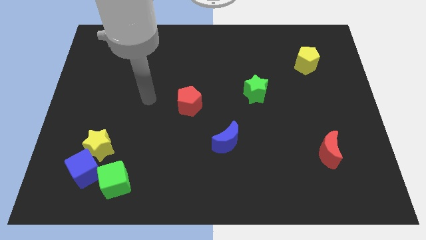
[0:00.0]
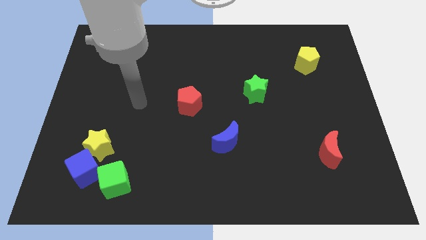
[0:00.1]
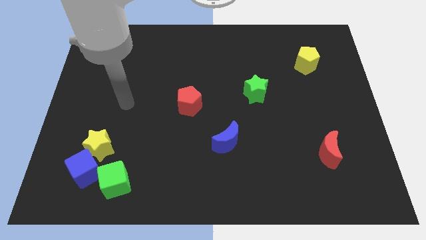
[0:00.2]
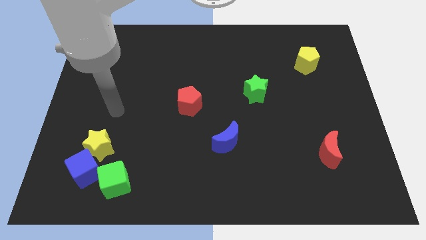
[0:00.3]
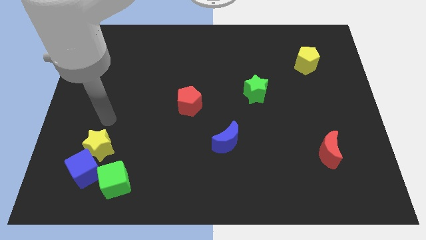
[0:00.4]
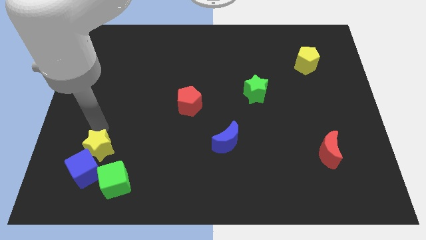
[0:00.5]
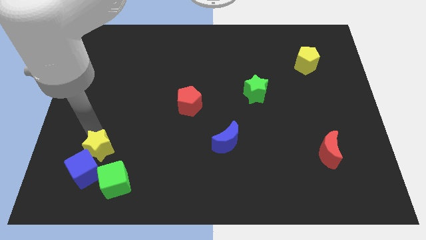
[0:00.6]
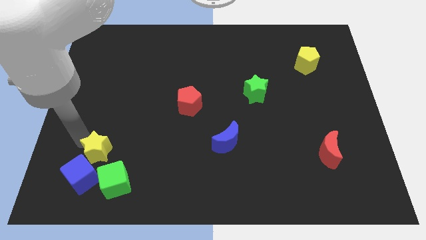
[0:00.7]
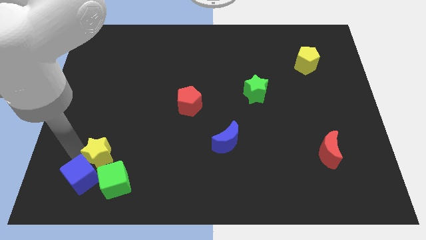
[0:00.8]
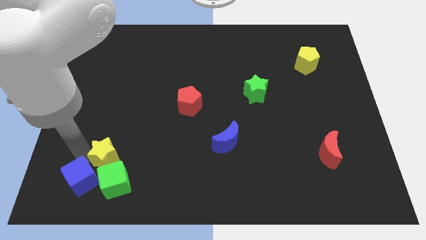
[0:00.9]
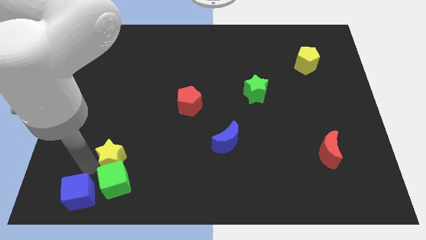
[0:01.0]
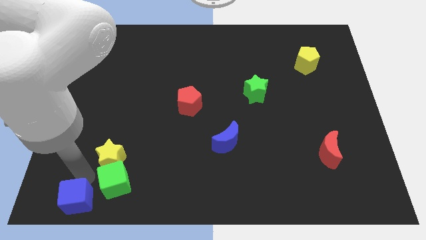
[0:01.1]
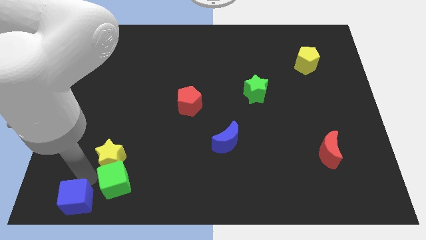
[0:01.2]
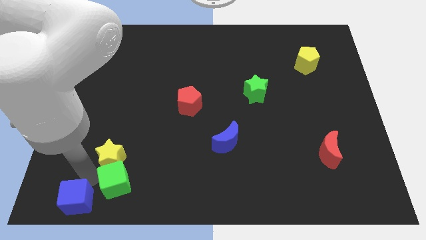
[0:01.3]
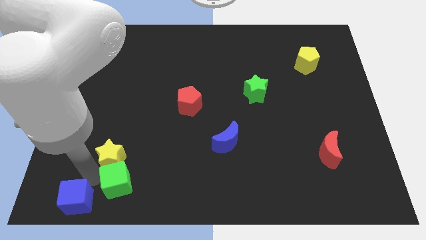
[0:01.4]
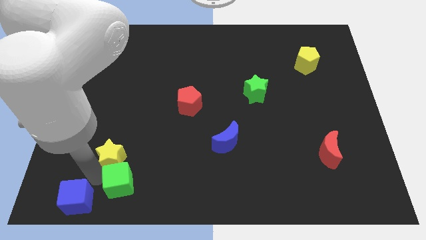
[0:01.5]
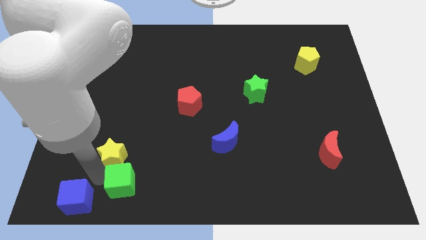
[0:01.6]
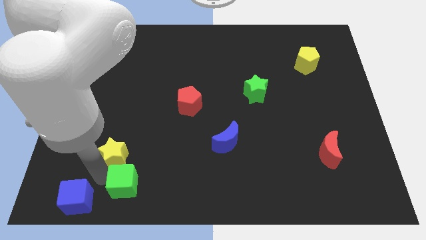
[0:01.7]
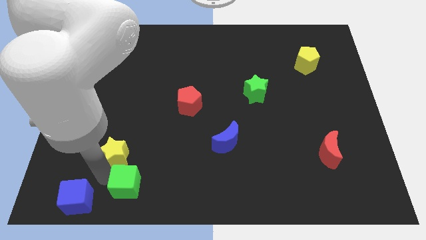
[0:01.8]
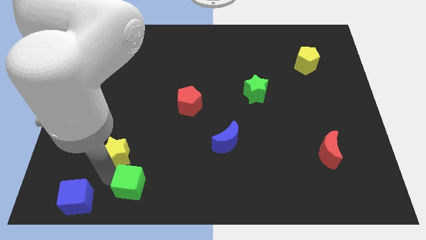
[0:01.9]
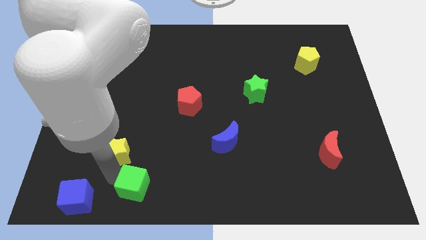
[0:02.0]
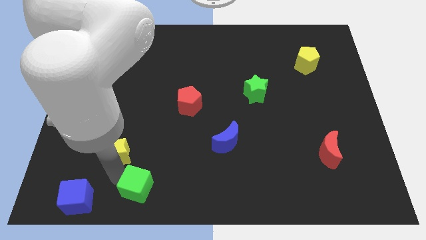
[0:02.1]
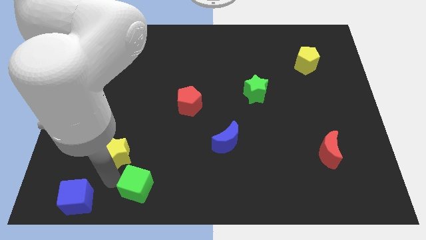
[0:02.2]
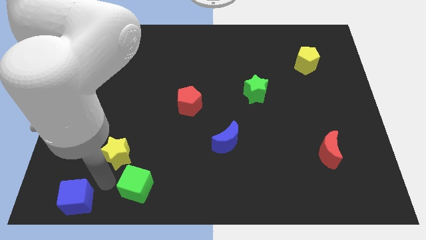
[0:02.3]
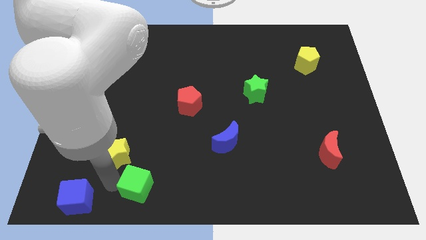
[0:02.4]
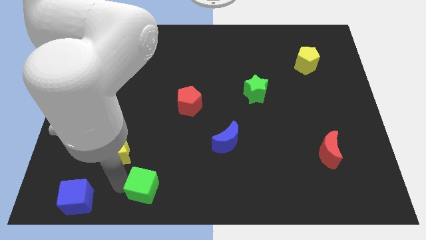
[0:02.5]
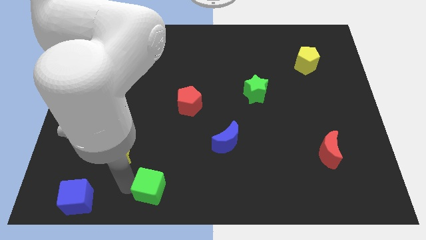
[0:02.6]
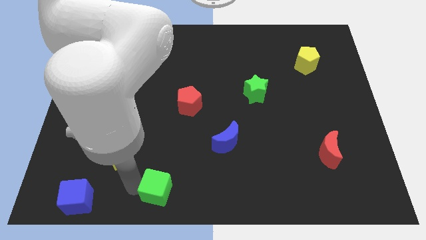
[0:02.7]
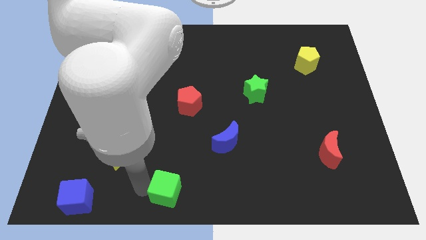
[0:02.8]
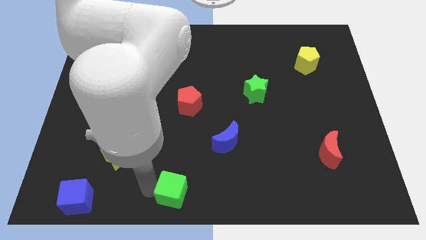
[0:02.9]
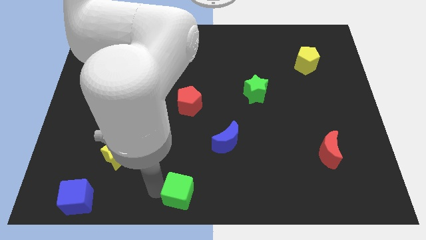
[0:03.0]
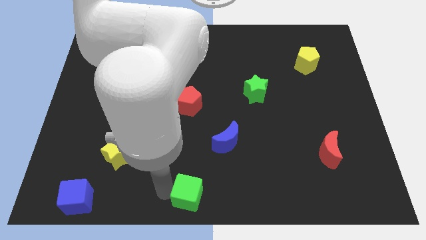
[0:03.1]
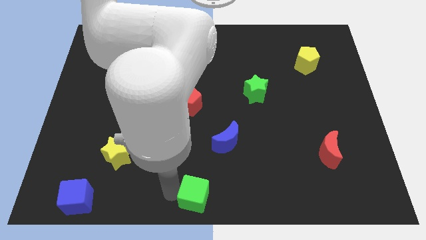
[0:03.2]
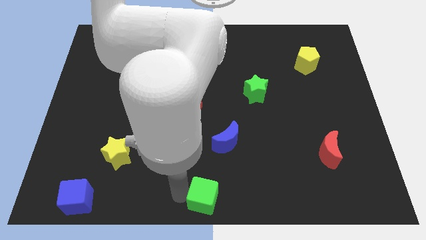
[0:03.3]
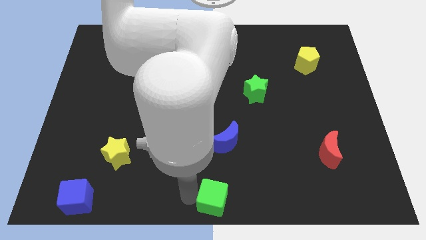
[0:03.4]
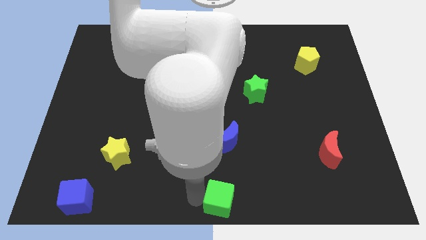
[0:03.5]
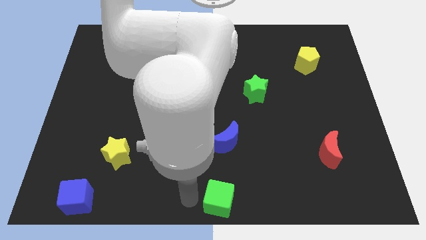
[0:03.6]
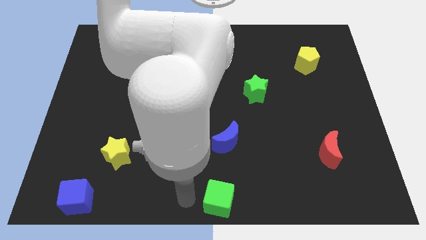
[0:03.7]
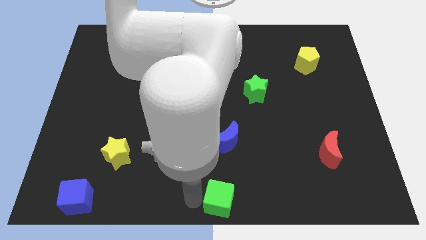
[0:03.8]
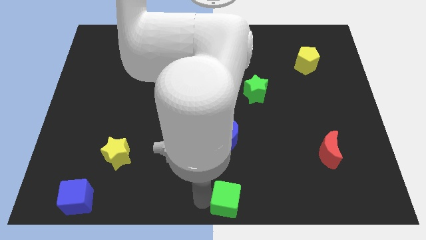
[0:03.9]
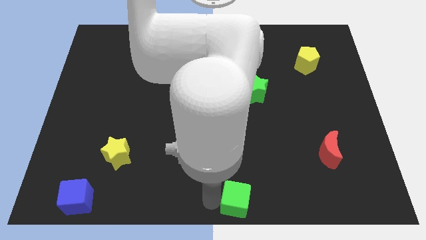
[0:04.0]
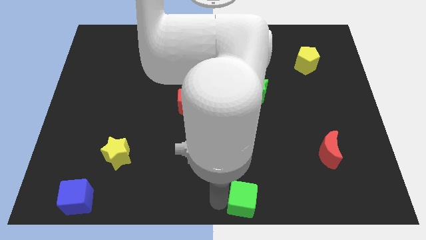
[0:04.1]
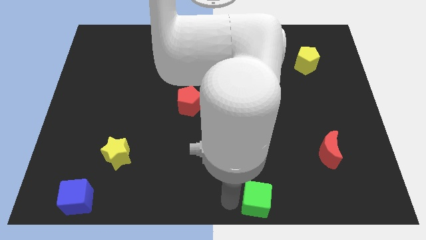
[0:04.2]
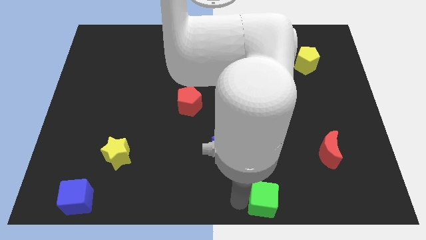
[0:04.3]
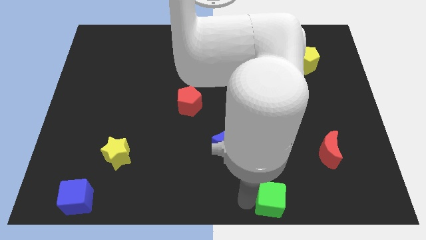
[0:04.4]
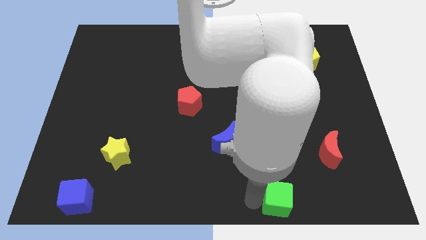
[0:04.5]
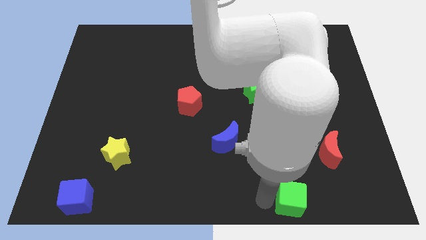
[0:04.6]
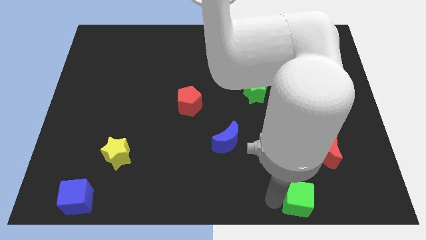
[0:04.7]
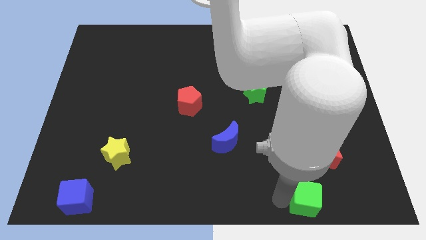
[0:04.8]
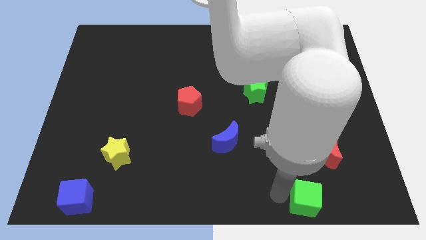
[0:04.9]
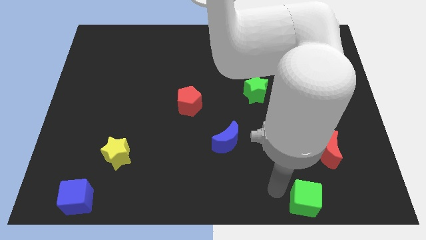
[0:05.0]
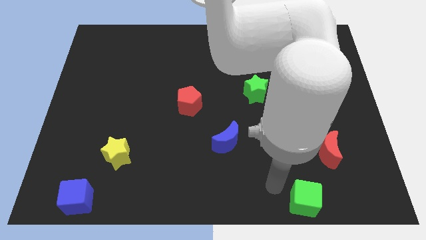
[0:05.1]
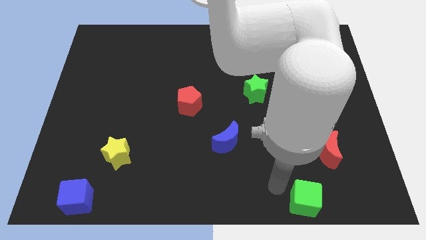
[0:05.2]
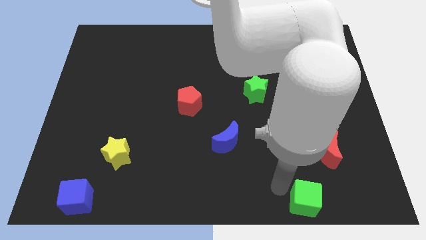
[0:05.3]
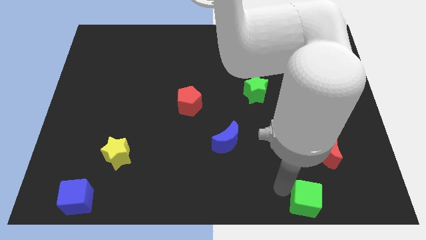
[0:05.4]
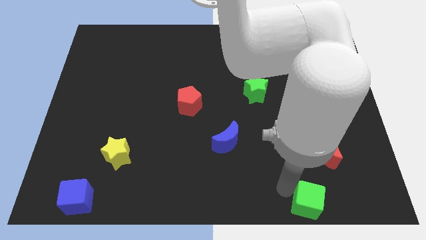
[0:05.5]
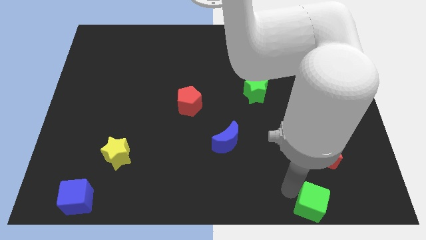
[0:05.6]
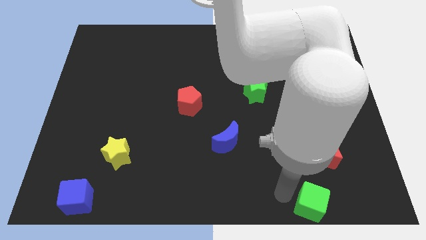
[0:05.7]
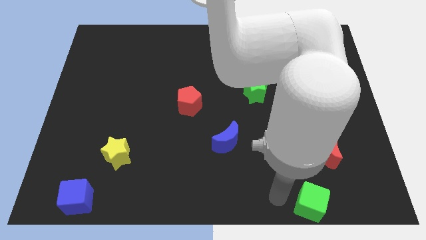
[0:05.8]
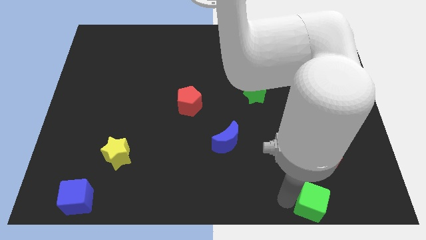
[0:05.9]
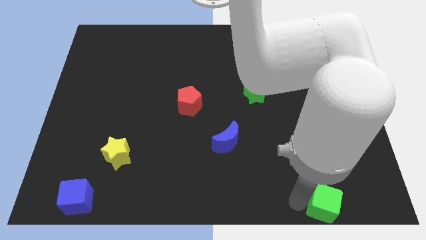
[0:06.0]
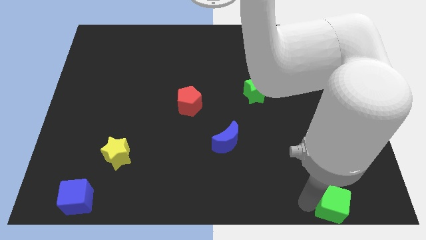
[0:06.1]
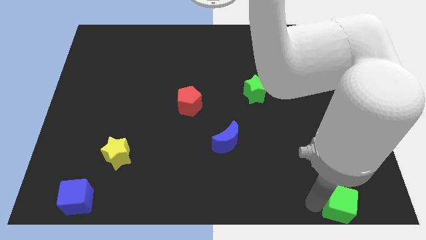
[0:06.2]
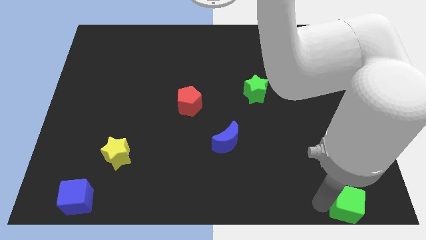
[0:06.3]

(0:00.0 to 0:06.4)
put the green cube to the lower right corner

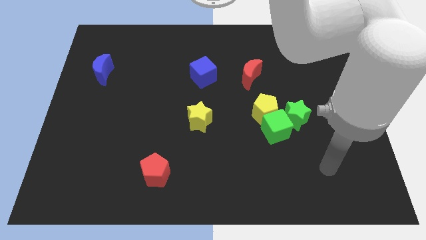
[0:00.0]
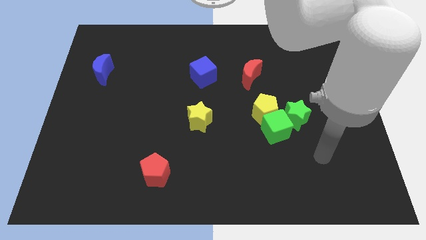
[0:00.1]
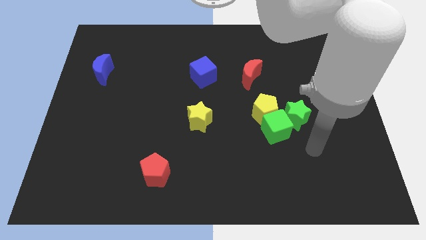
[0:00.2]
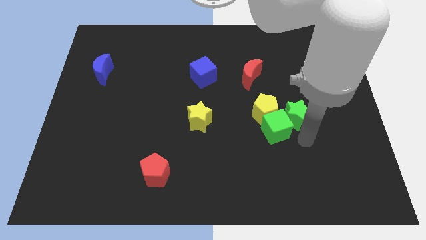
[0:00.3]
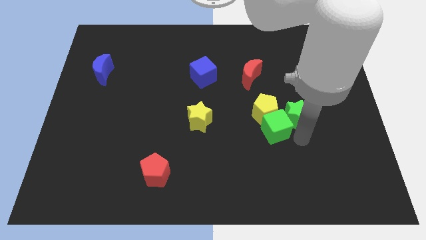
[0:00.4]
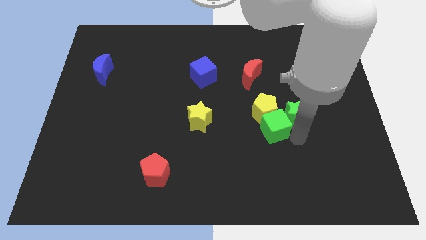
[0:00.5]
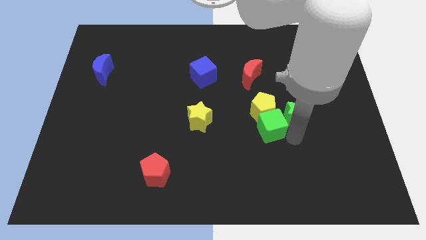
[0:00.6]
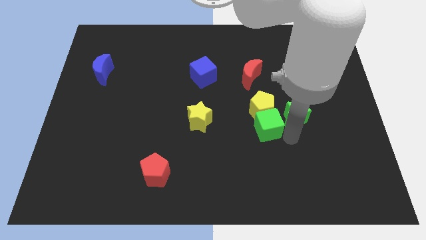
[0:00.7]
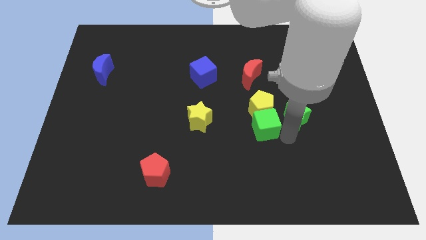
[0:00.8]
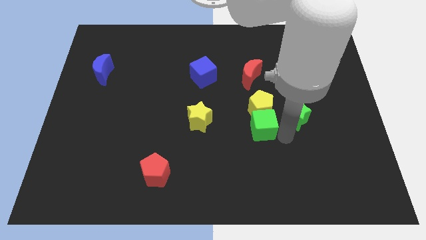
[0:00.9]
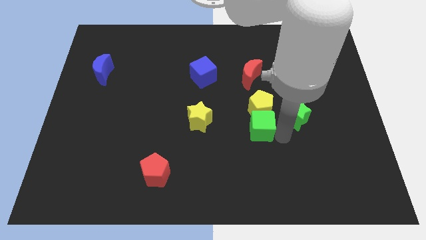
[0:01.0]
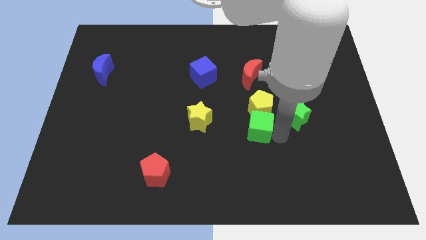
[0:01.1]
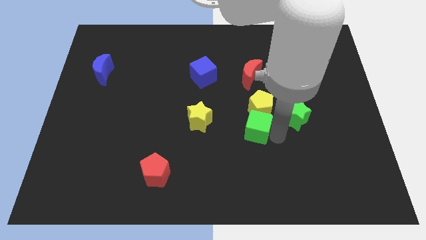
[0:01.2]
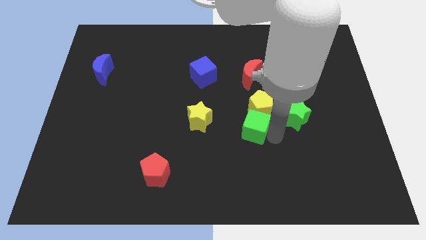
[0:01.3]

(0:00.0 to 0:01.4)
move the green cube to the middle
